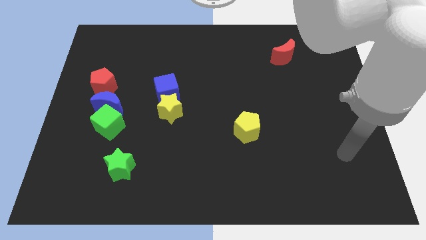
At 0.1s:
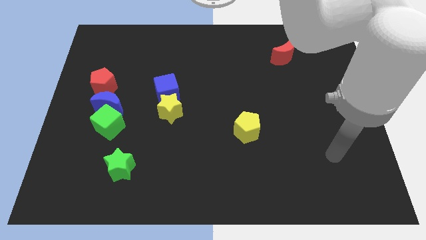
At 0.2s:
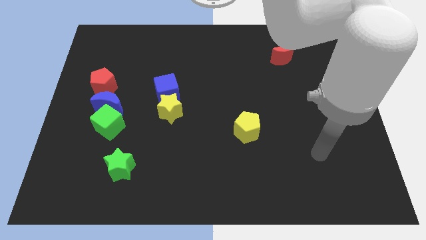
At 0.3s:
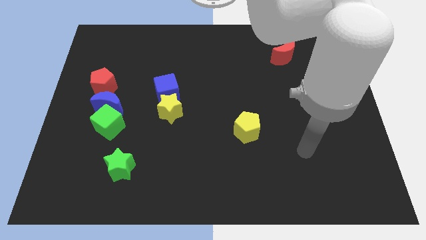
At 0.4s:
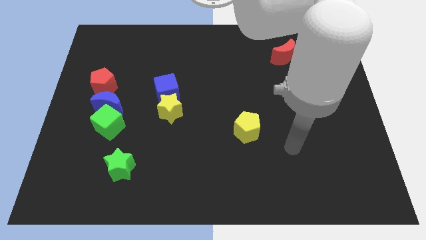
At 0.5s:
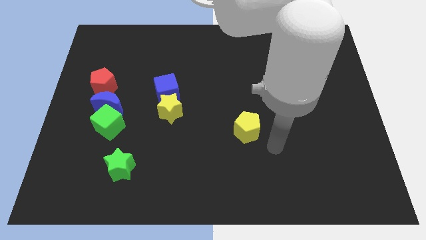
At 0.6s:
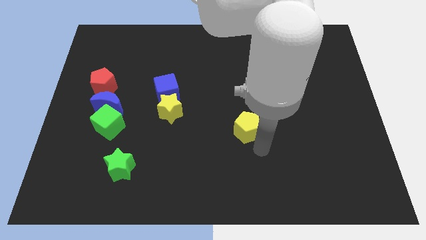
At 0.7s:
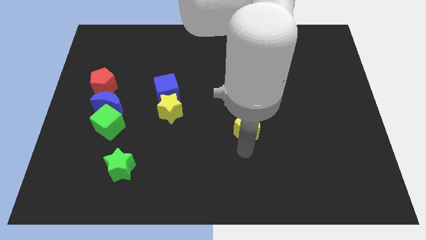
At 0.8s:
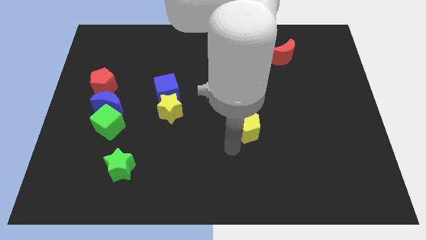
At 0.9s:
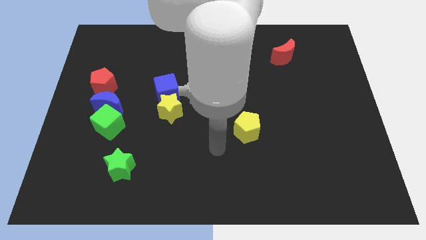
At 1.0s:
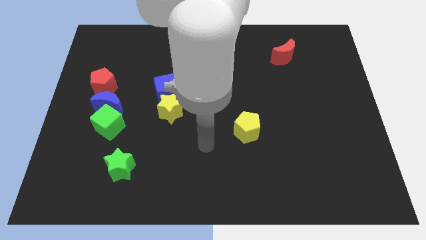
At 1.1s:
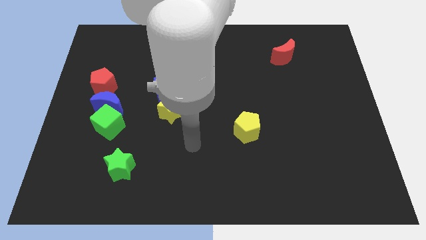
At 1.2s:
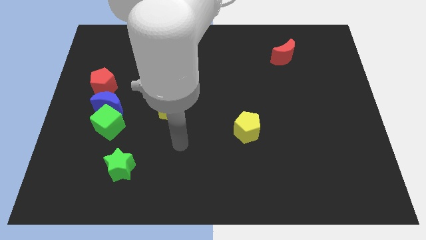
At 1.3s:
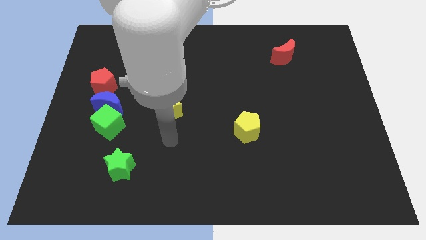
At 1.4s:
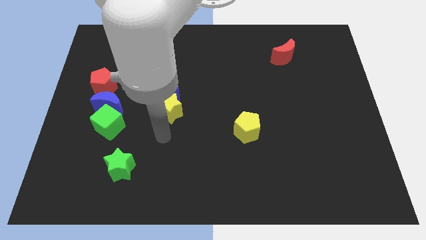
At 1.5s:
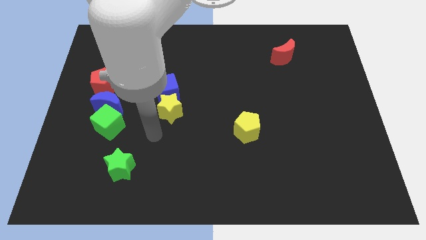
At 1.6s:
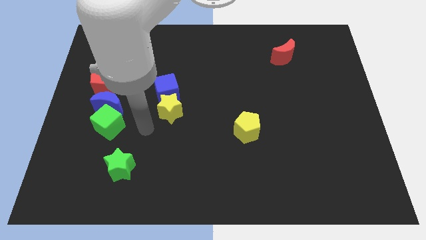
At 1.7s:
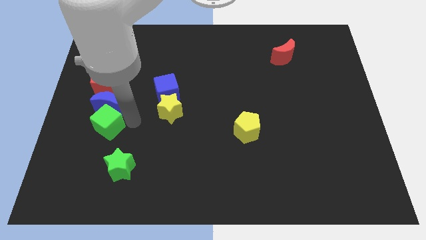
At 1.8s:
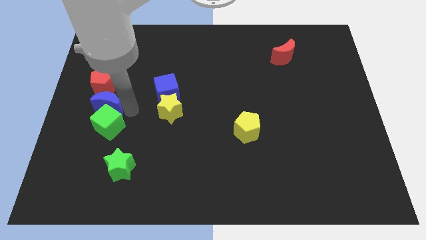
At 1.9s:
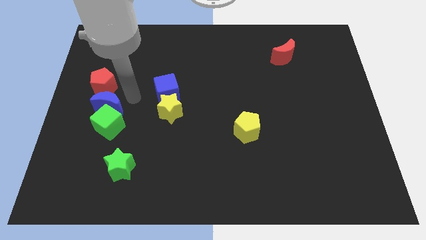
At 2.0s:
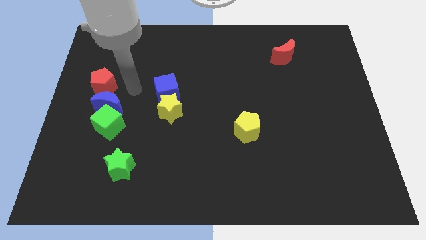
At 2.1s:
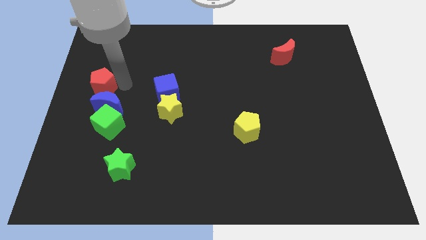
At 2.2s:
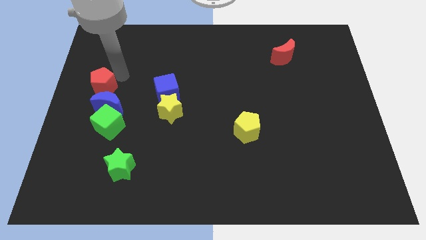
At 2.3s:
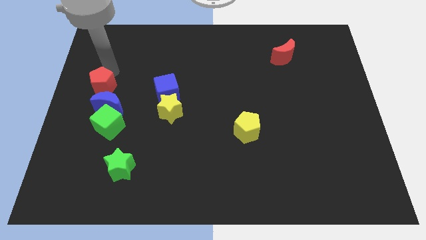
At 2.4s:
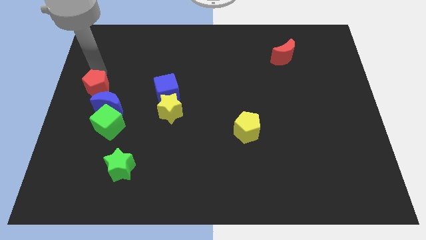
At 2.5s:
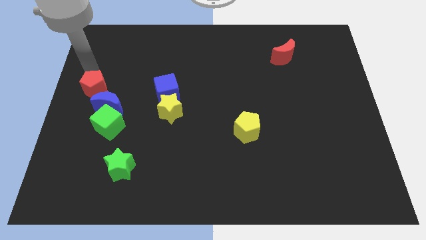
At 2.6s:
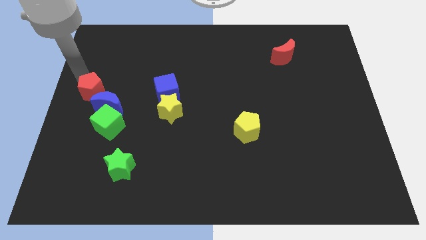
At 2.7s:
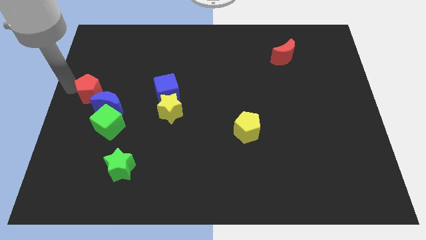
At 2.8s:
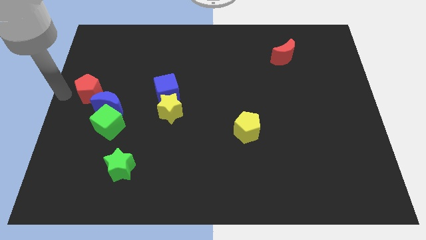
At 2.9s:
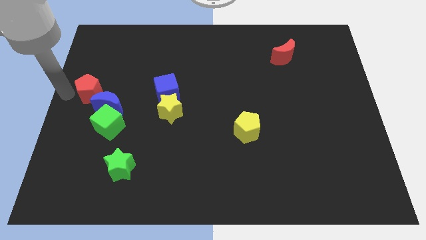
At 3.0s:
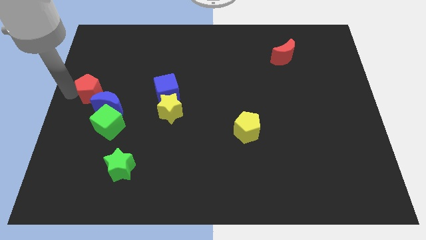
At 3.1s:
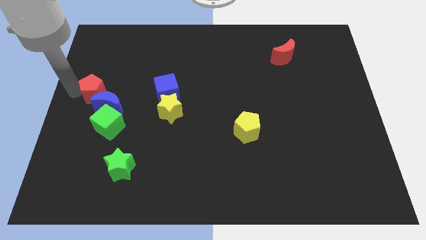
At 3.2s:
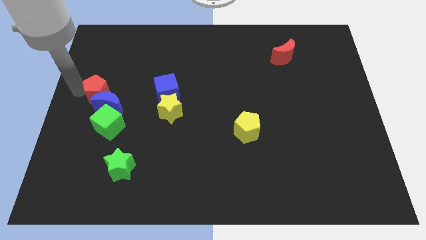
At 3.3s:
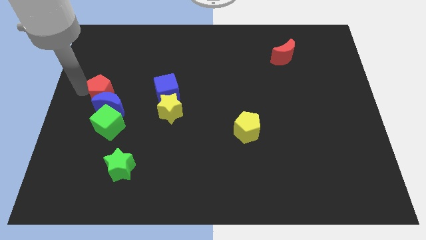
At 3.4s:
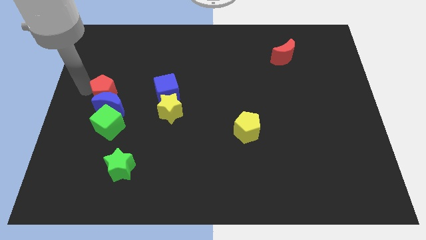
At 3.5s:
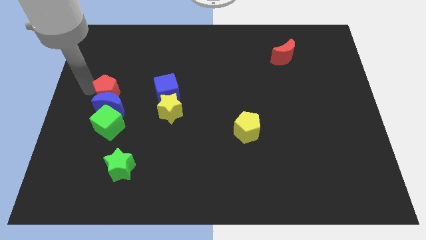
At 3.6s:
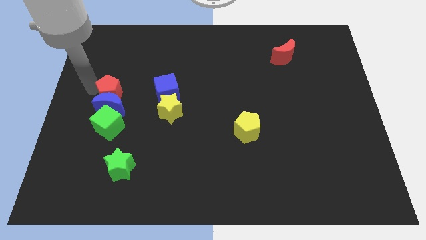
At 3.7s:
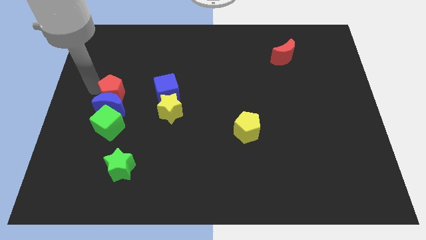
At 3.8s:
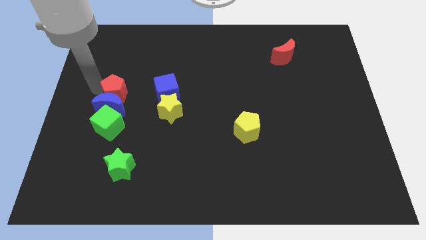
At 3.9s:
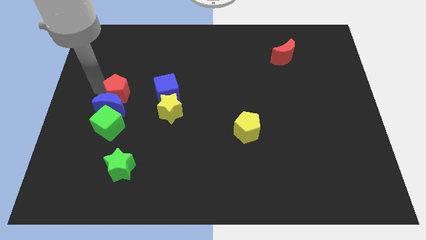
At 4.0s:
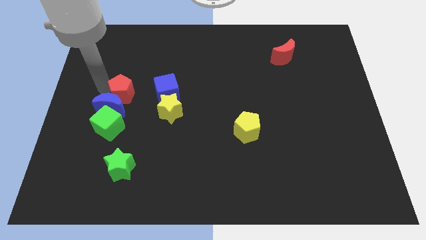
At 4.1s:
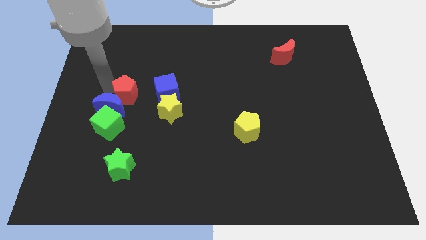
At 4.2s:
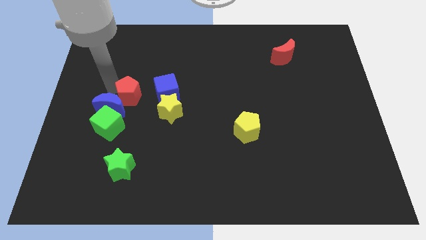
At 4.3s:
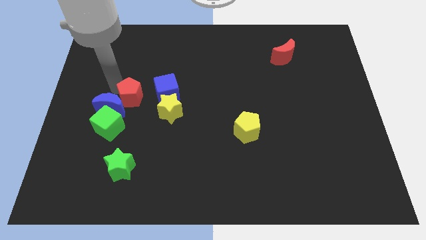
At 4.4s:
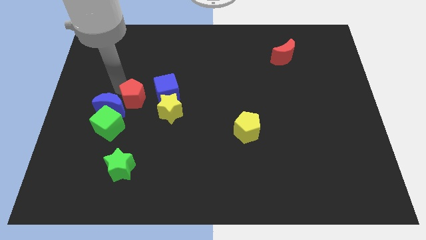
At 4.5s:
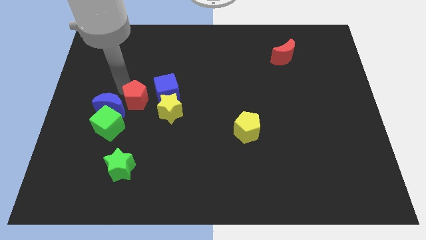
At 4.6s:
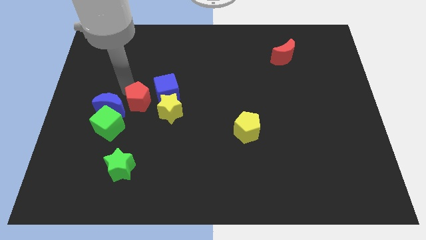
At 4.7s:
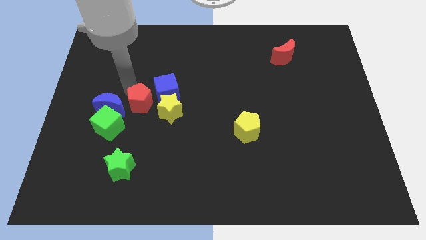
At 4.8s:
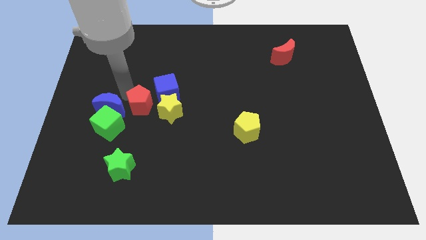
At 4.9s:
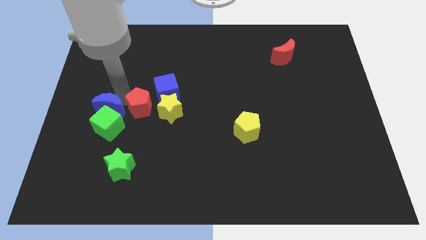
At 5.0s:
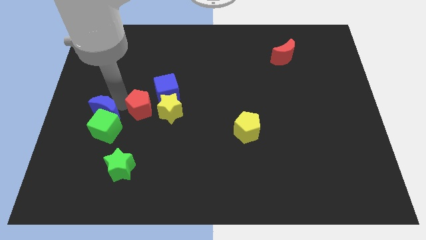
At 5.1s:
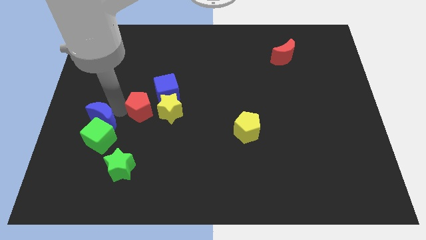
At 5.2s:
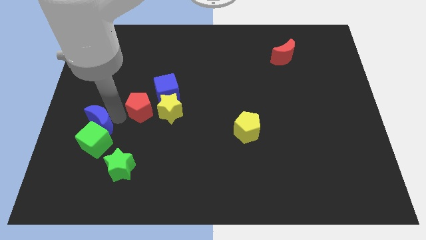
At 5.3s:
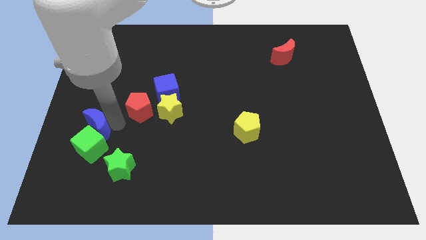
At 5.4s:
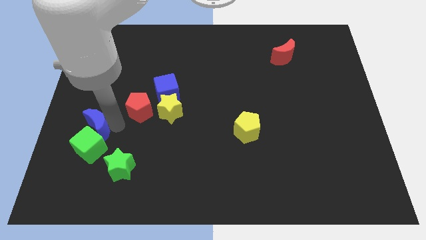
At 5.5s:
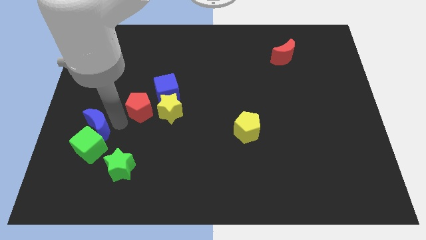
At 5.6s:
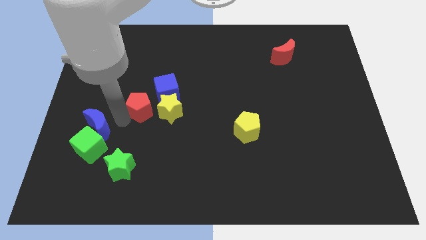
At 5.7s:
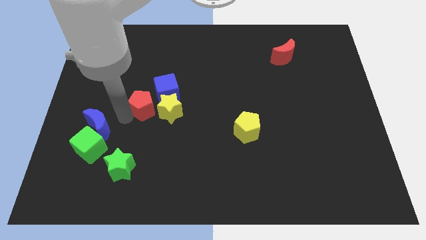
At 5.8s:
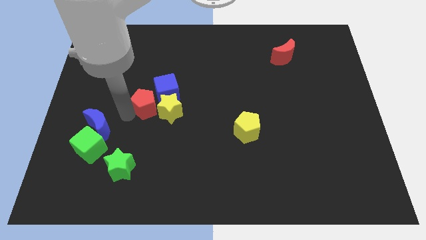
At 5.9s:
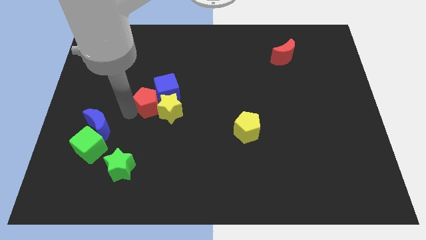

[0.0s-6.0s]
put the red pentagon towards the blue cube

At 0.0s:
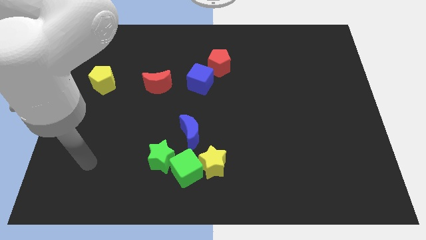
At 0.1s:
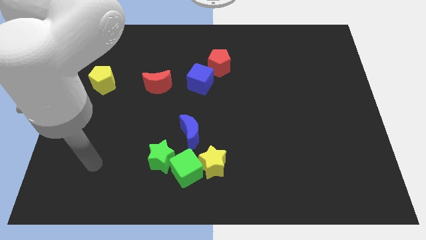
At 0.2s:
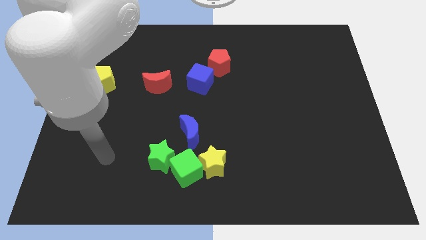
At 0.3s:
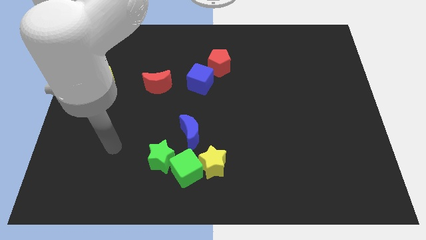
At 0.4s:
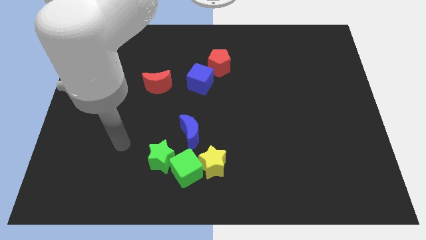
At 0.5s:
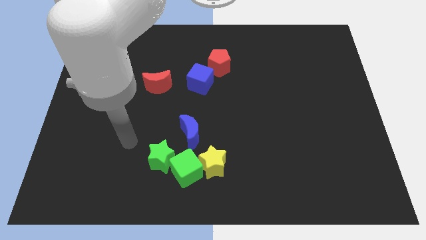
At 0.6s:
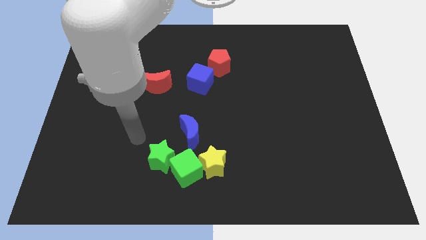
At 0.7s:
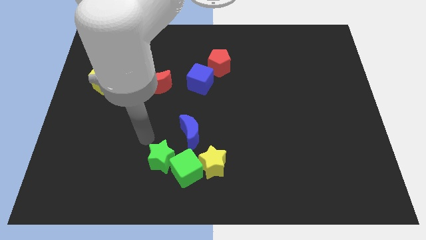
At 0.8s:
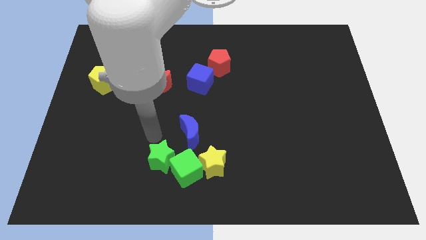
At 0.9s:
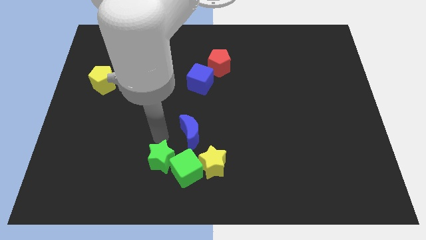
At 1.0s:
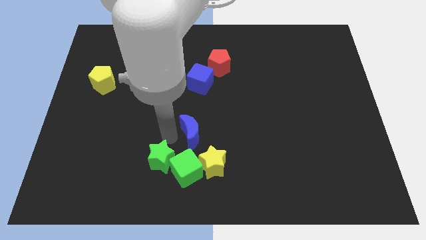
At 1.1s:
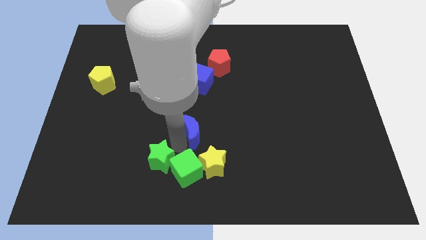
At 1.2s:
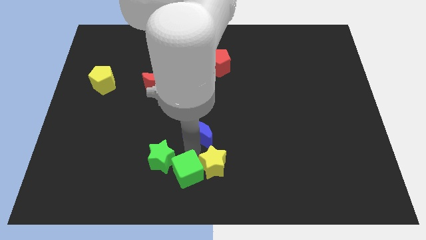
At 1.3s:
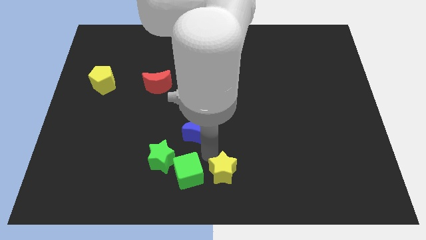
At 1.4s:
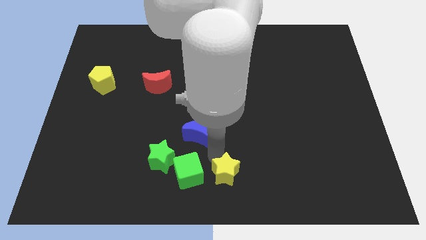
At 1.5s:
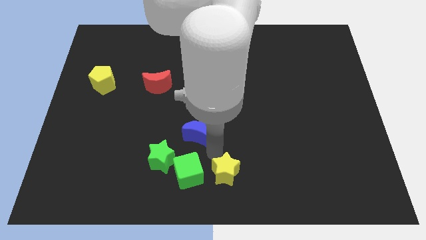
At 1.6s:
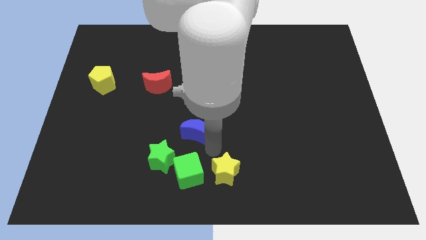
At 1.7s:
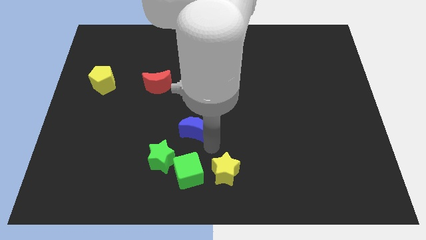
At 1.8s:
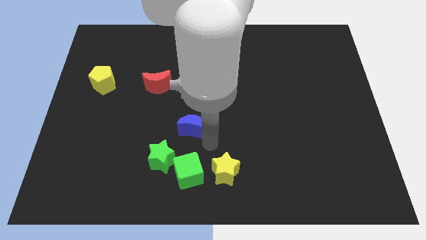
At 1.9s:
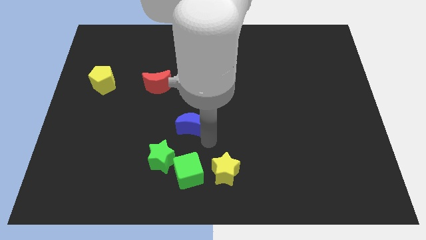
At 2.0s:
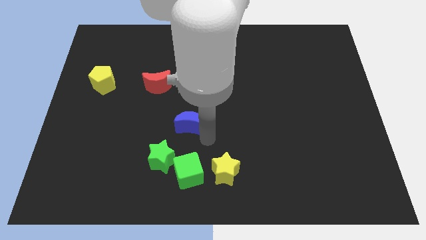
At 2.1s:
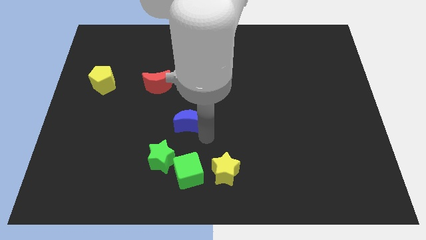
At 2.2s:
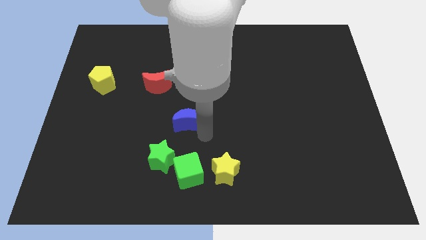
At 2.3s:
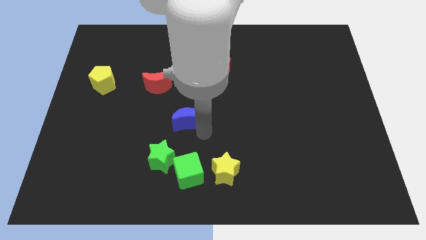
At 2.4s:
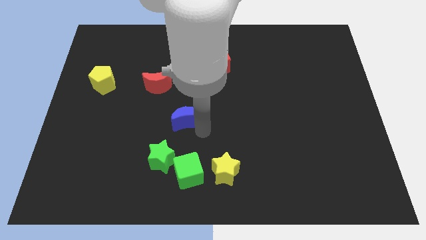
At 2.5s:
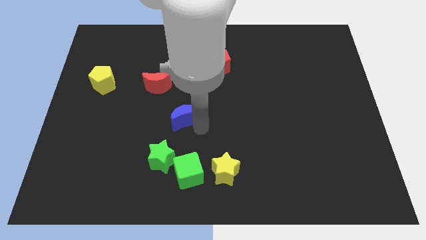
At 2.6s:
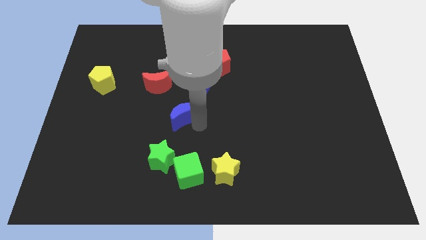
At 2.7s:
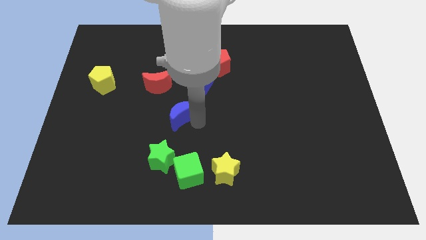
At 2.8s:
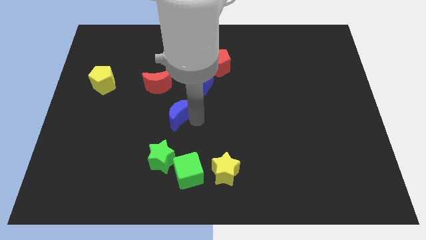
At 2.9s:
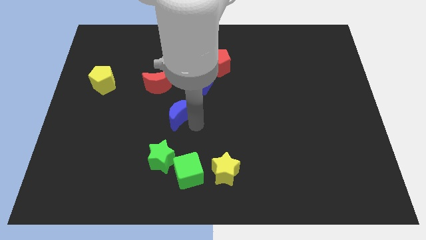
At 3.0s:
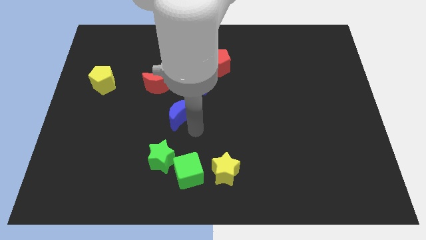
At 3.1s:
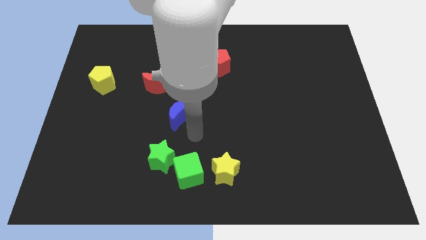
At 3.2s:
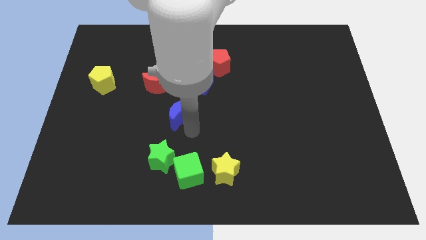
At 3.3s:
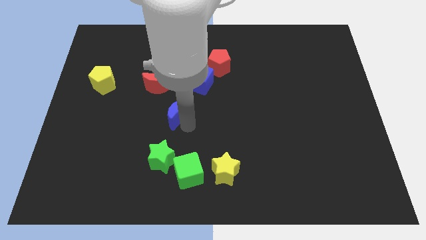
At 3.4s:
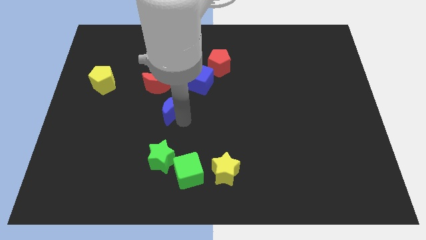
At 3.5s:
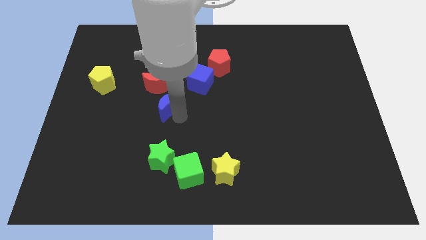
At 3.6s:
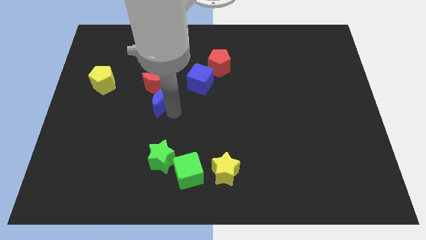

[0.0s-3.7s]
put the blue moon close to the red moon
